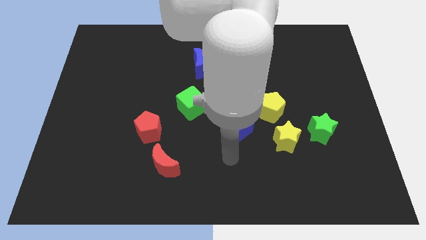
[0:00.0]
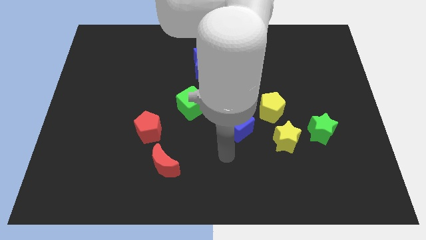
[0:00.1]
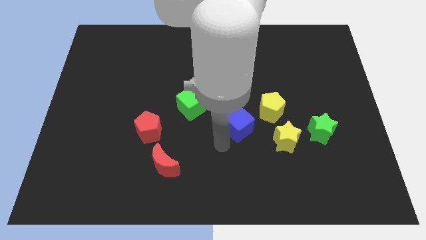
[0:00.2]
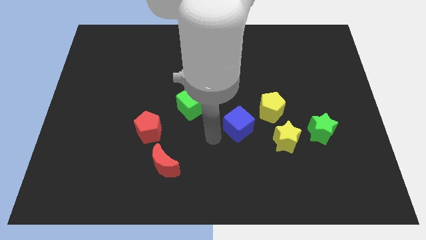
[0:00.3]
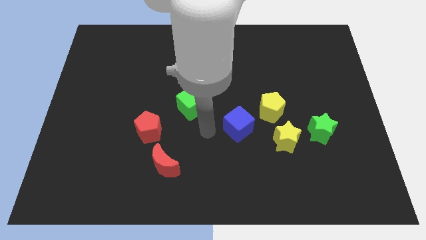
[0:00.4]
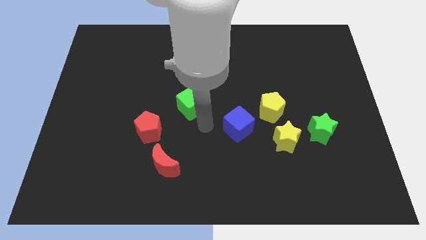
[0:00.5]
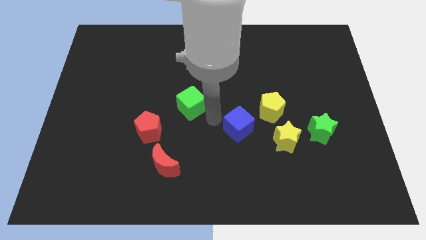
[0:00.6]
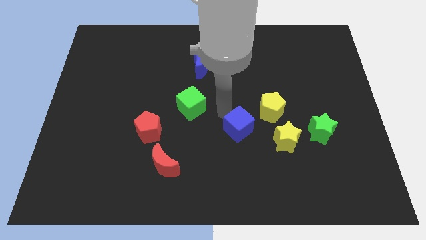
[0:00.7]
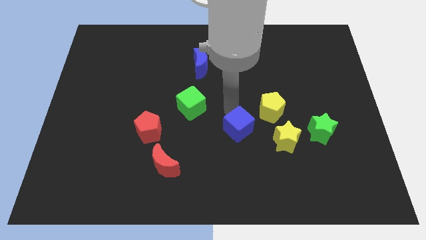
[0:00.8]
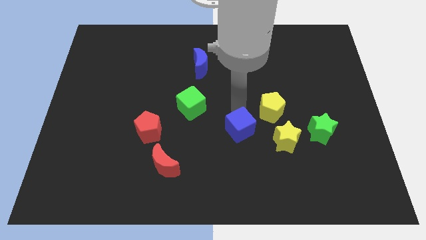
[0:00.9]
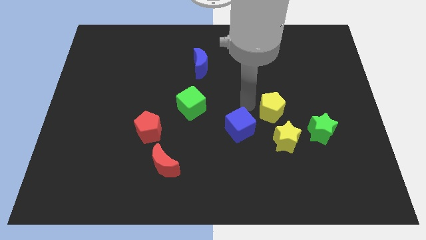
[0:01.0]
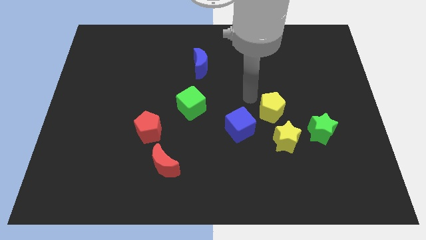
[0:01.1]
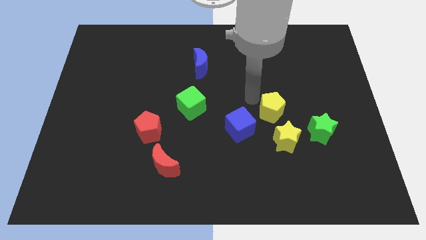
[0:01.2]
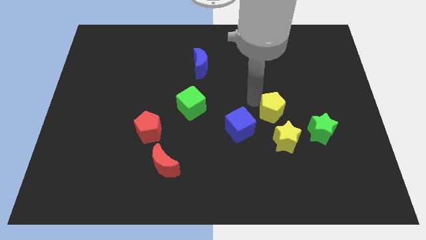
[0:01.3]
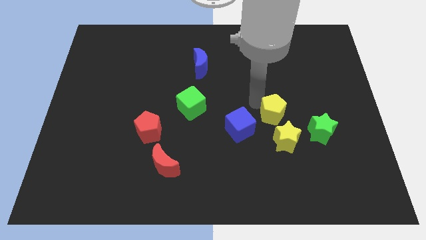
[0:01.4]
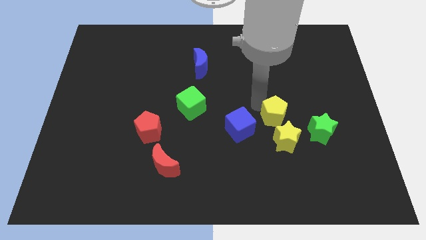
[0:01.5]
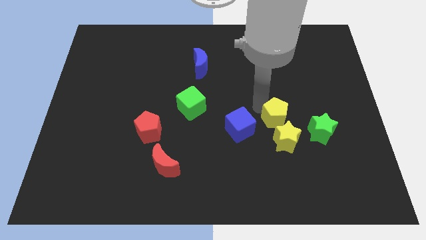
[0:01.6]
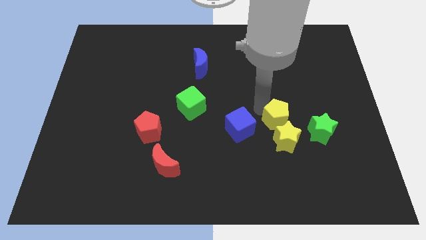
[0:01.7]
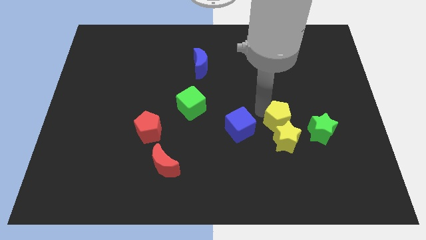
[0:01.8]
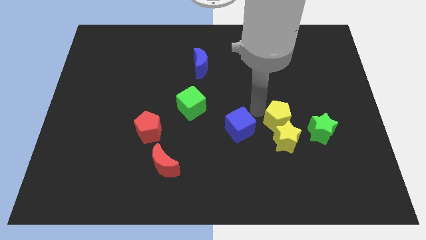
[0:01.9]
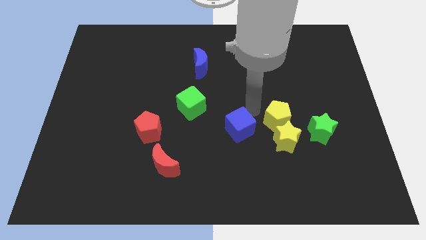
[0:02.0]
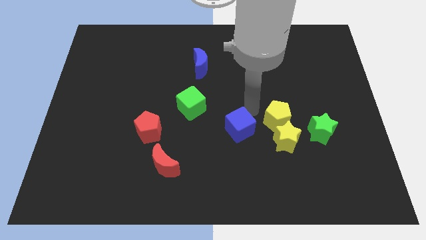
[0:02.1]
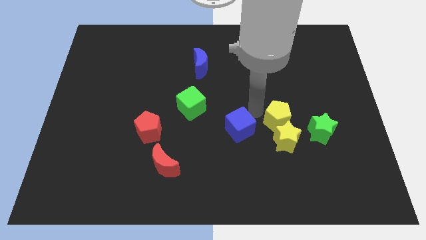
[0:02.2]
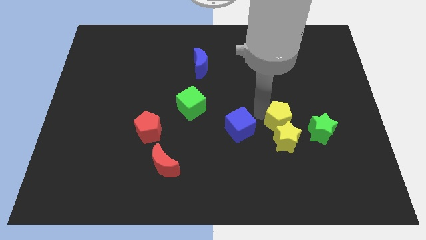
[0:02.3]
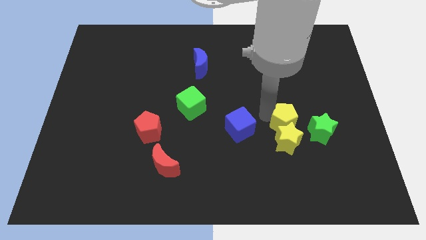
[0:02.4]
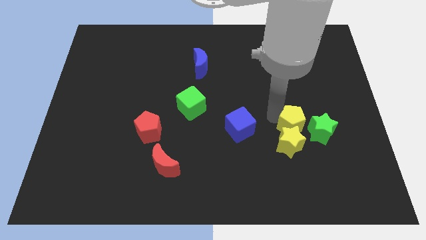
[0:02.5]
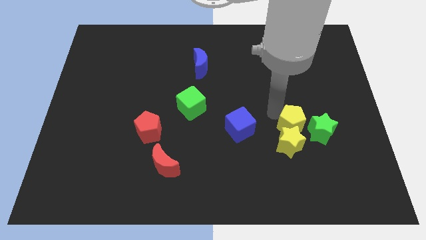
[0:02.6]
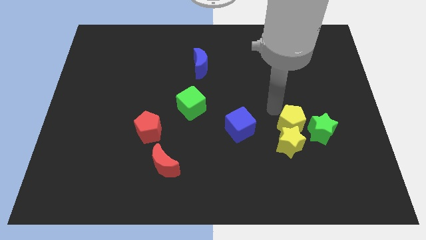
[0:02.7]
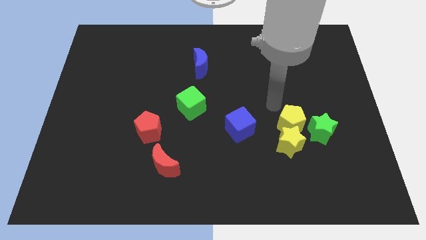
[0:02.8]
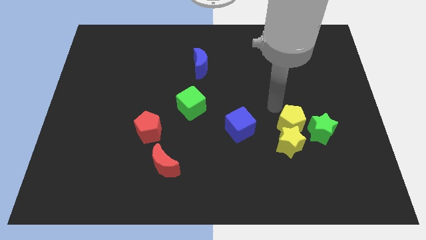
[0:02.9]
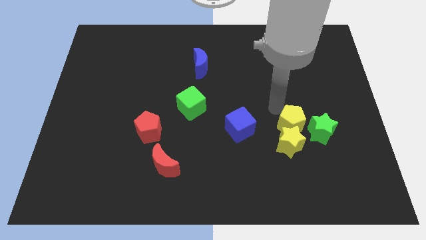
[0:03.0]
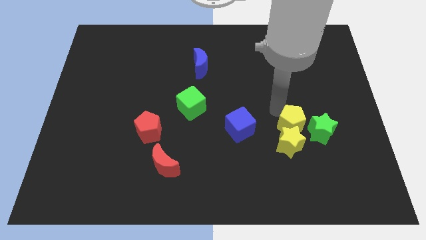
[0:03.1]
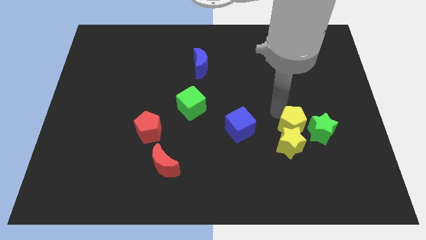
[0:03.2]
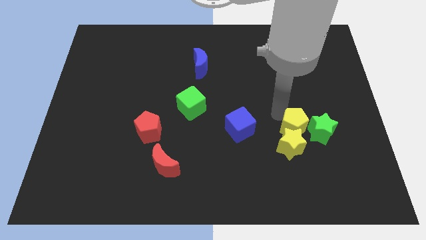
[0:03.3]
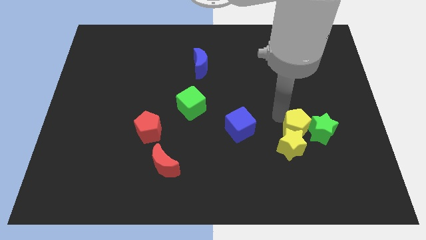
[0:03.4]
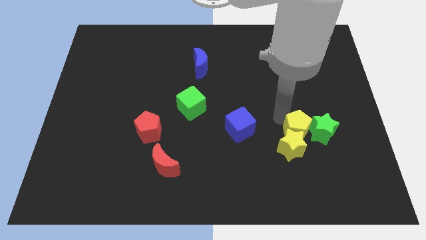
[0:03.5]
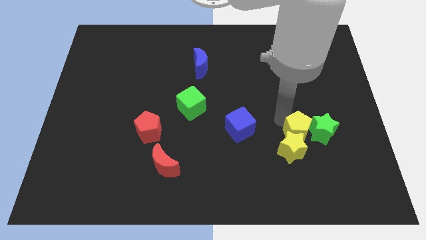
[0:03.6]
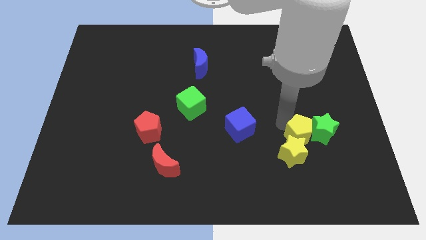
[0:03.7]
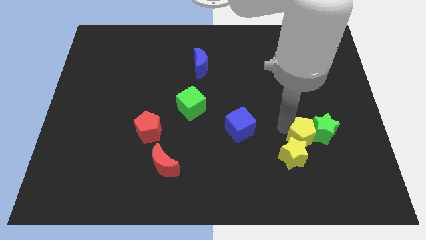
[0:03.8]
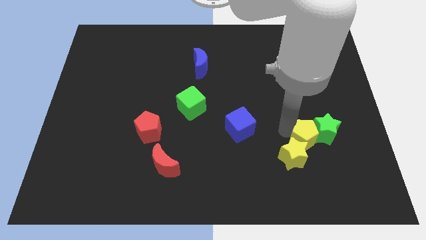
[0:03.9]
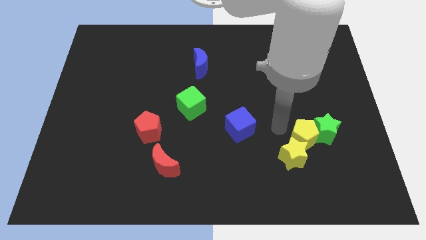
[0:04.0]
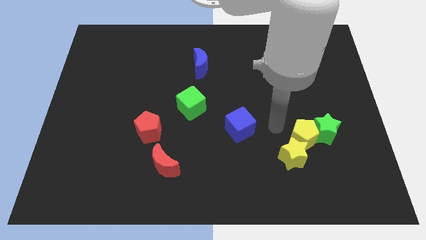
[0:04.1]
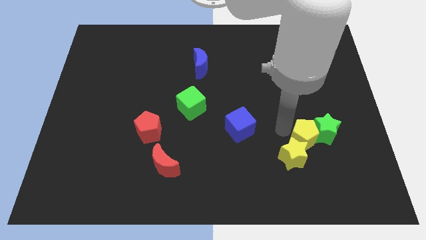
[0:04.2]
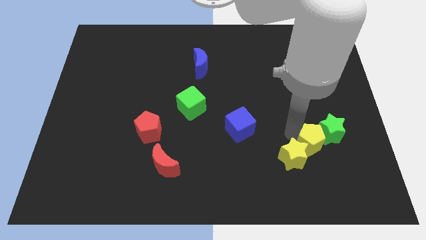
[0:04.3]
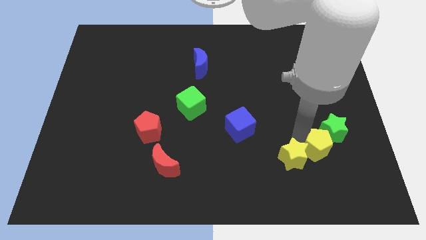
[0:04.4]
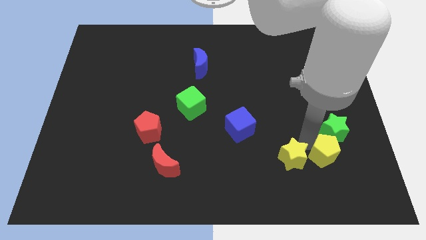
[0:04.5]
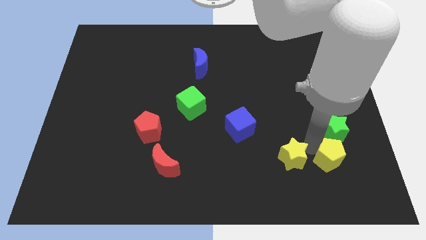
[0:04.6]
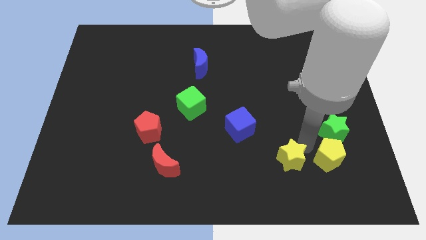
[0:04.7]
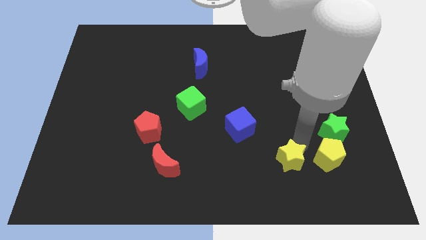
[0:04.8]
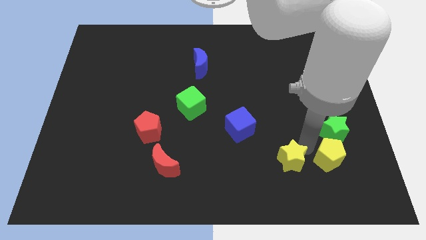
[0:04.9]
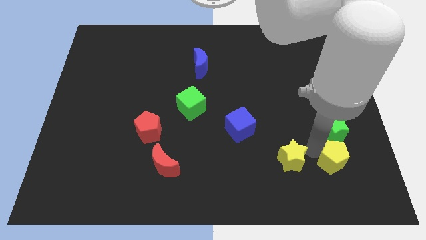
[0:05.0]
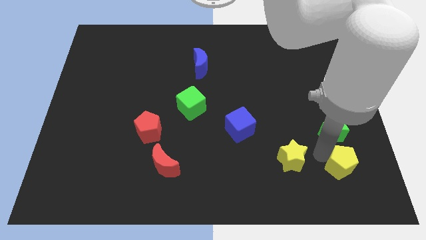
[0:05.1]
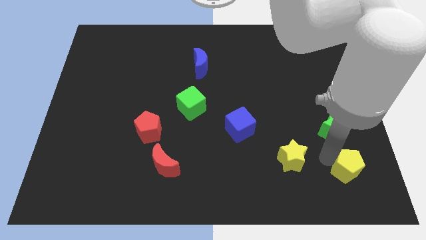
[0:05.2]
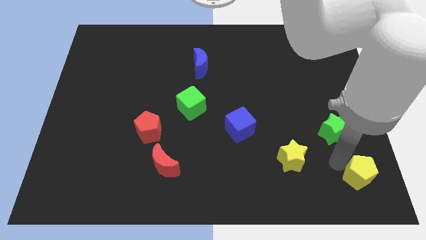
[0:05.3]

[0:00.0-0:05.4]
slide the yellow pentagon to the bottom right corner

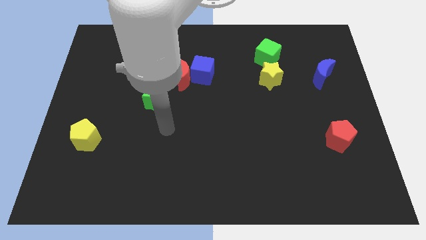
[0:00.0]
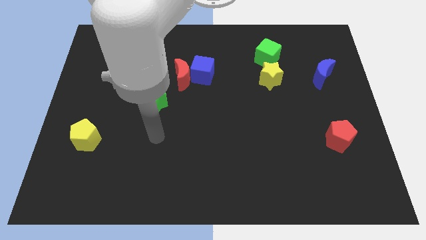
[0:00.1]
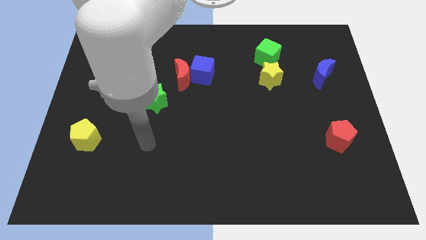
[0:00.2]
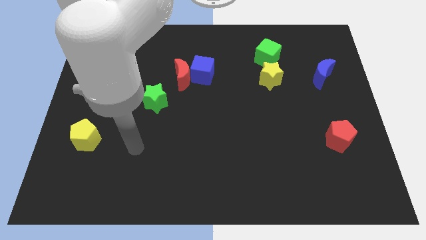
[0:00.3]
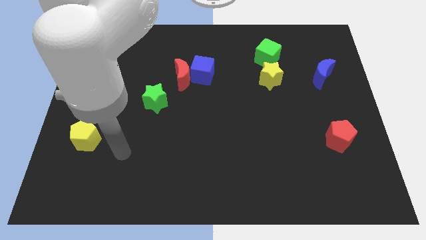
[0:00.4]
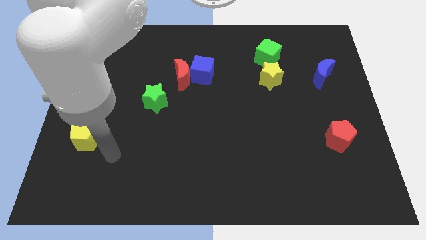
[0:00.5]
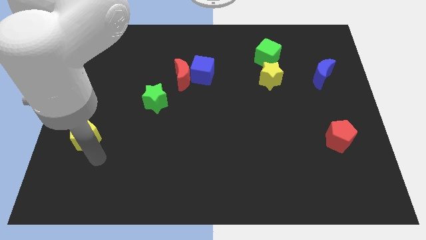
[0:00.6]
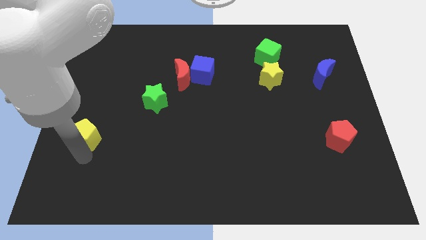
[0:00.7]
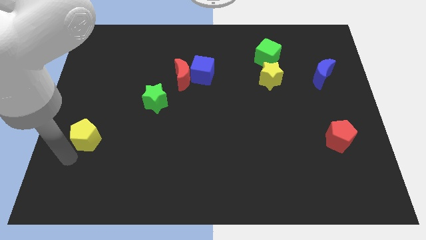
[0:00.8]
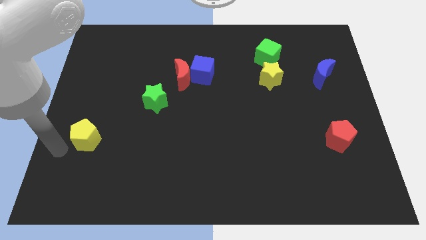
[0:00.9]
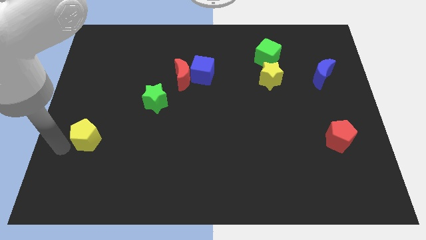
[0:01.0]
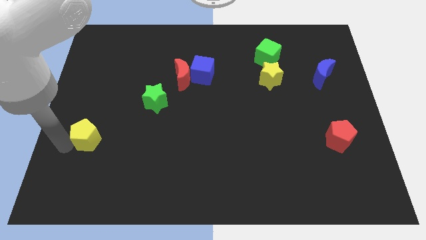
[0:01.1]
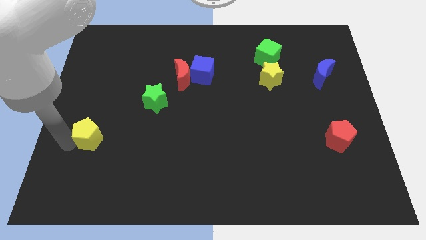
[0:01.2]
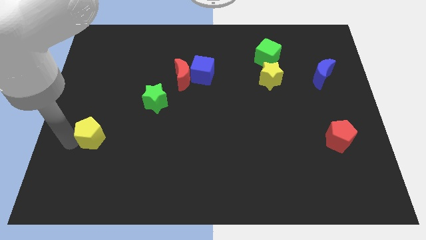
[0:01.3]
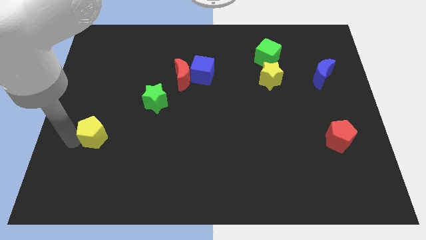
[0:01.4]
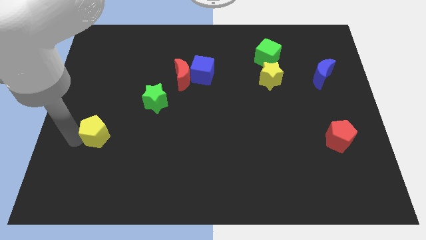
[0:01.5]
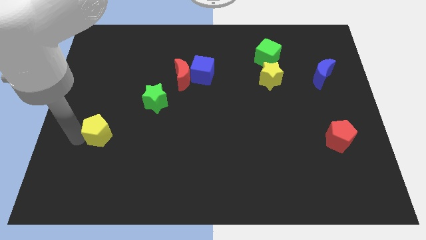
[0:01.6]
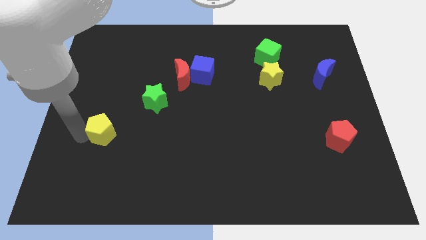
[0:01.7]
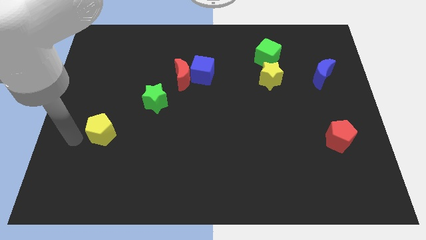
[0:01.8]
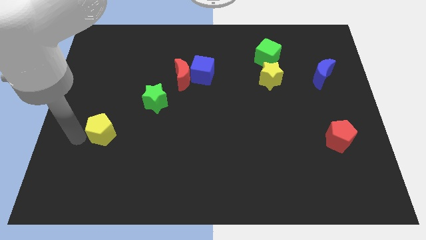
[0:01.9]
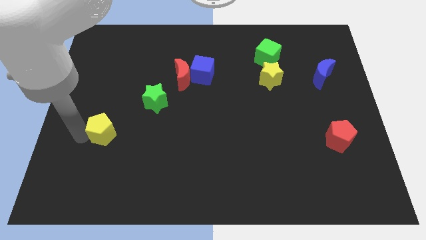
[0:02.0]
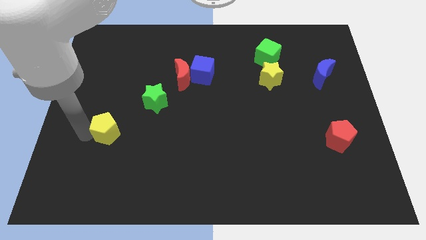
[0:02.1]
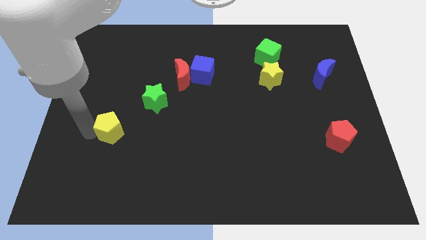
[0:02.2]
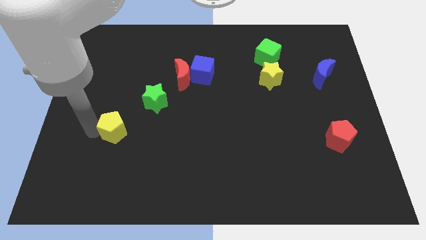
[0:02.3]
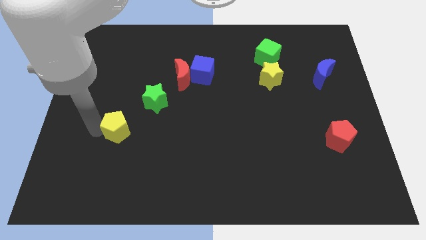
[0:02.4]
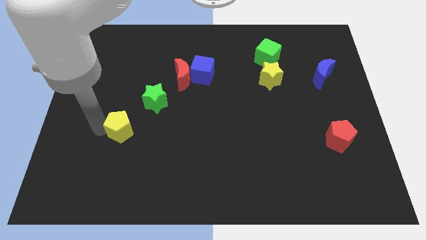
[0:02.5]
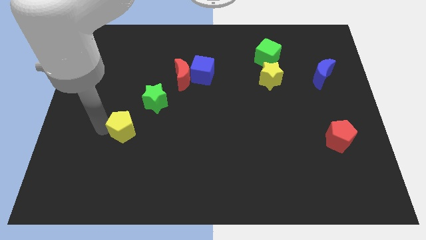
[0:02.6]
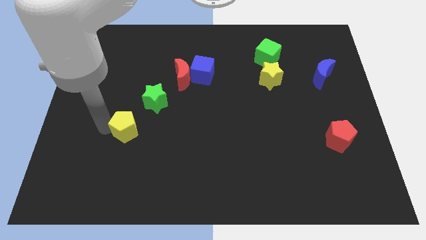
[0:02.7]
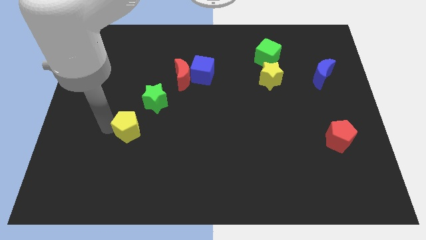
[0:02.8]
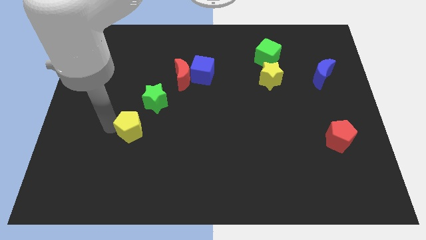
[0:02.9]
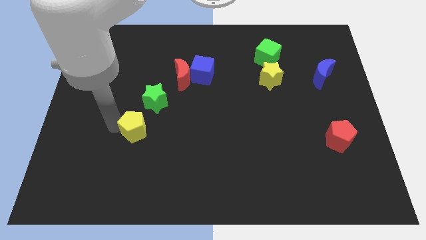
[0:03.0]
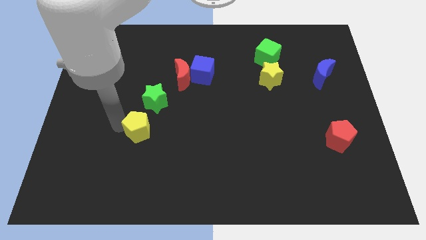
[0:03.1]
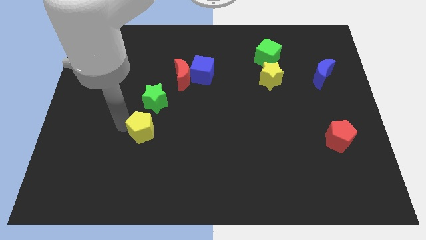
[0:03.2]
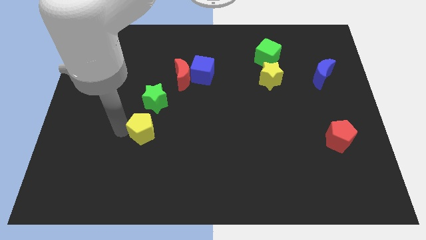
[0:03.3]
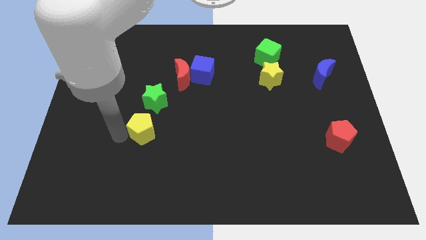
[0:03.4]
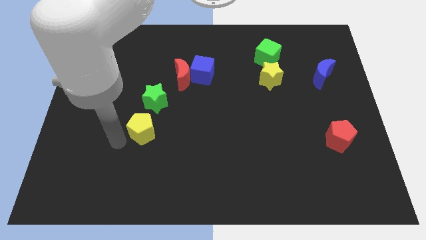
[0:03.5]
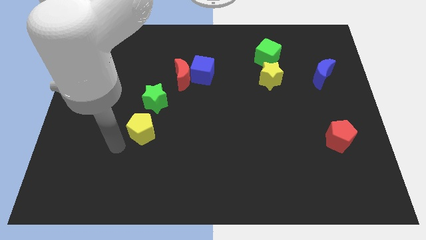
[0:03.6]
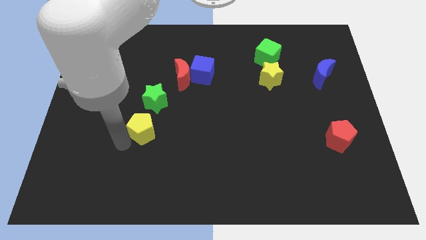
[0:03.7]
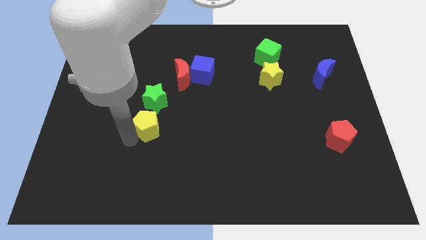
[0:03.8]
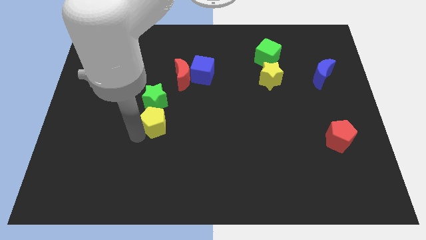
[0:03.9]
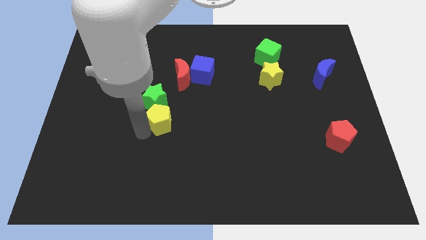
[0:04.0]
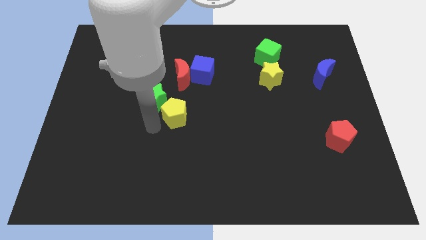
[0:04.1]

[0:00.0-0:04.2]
put the yellow pentagon to the middle of the board
